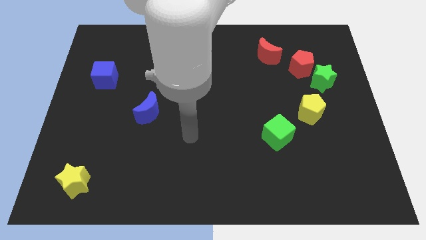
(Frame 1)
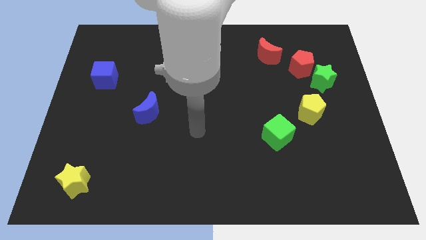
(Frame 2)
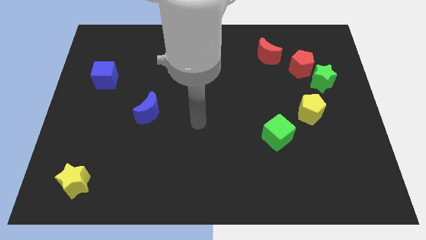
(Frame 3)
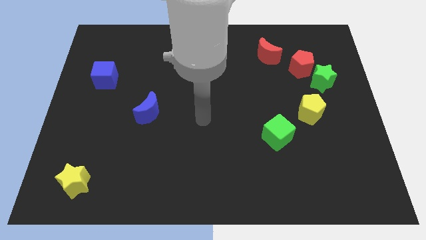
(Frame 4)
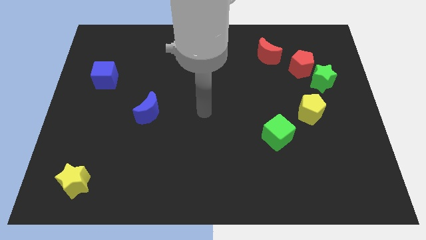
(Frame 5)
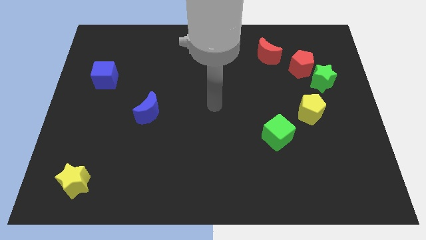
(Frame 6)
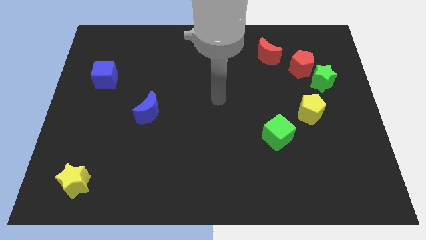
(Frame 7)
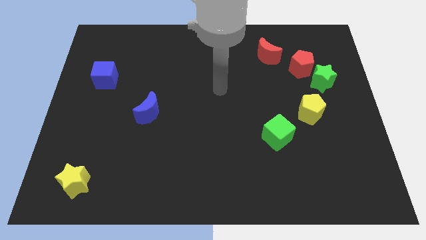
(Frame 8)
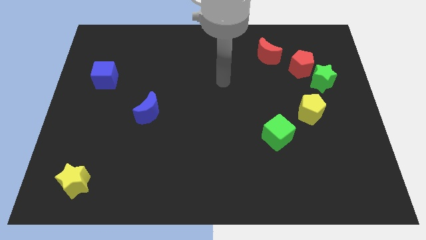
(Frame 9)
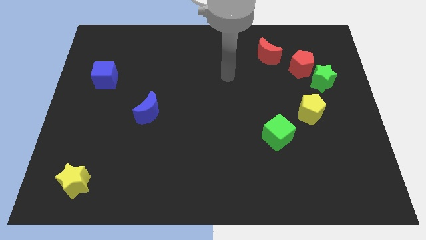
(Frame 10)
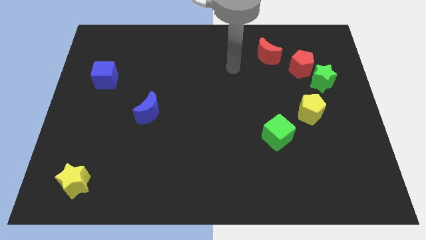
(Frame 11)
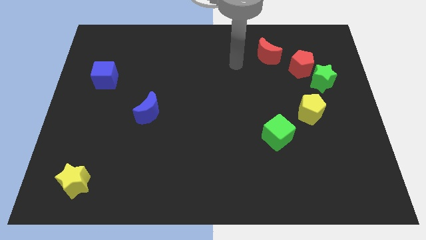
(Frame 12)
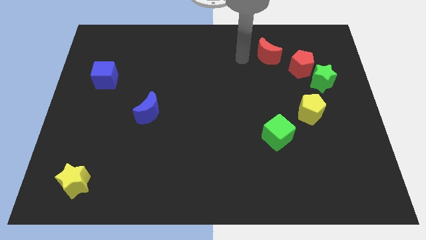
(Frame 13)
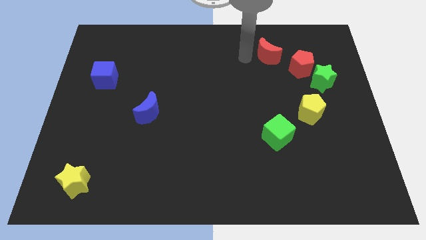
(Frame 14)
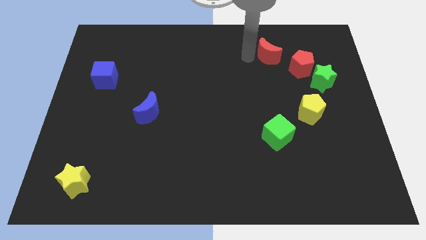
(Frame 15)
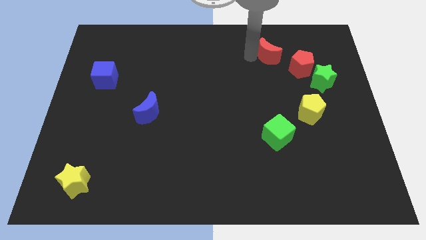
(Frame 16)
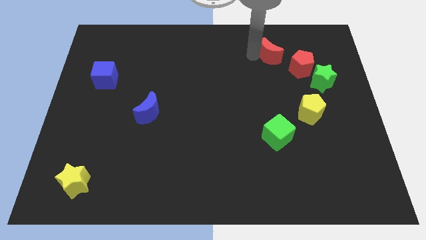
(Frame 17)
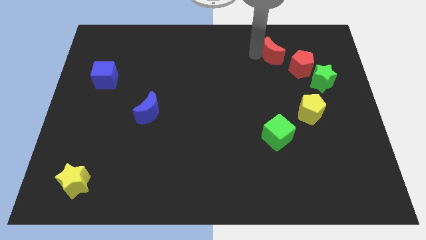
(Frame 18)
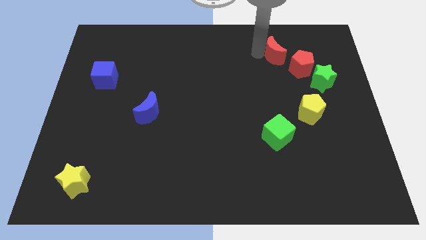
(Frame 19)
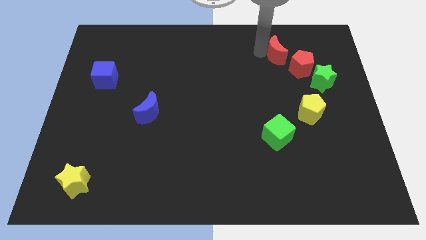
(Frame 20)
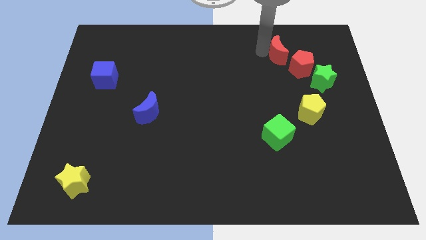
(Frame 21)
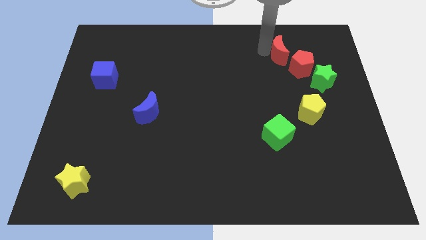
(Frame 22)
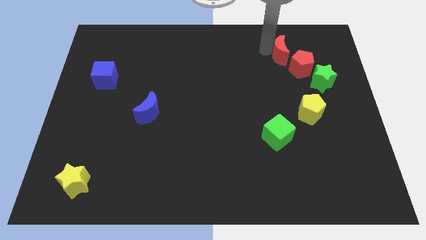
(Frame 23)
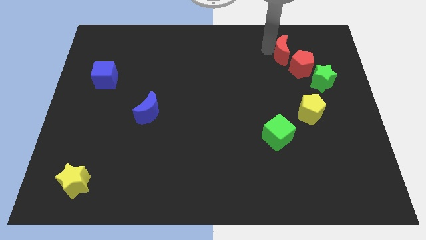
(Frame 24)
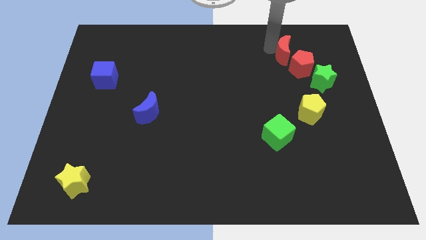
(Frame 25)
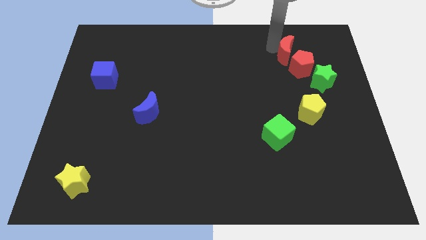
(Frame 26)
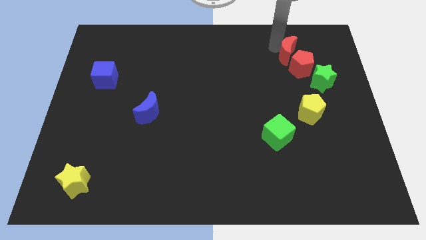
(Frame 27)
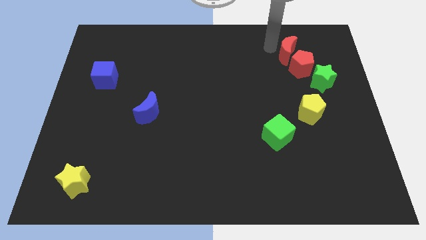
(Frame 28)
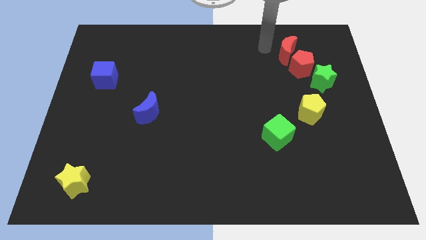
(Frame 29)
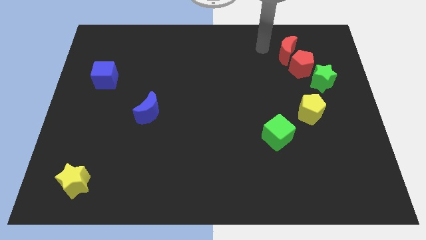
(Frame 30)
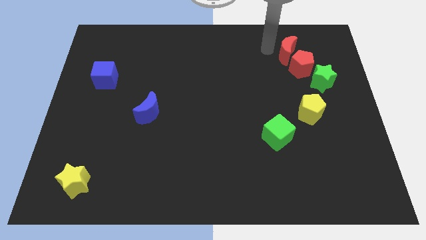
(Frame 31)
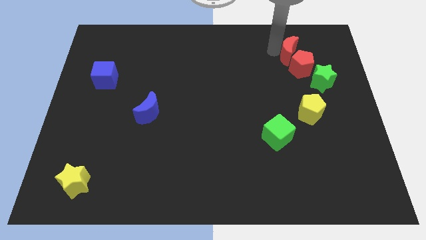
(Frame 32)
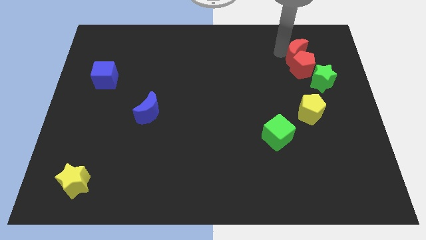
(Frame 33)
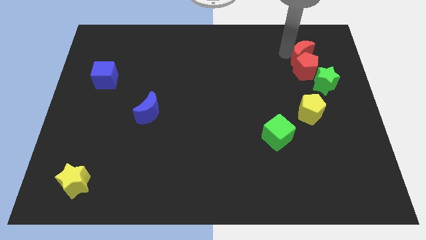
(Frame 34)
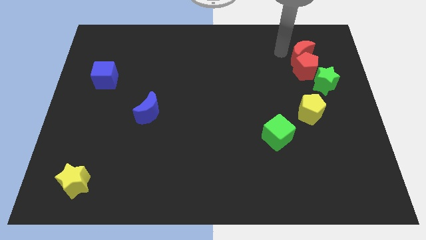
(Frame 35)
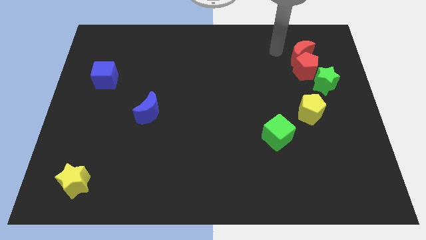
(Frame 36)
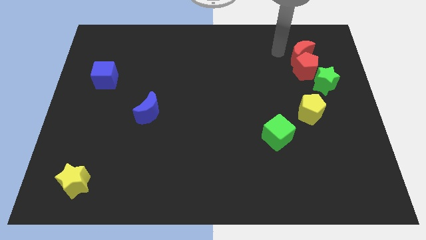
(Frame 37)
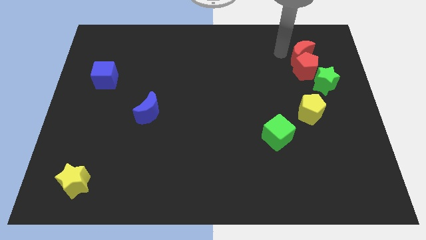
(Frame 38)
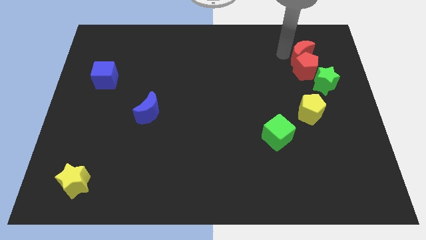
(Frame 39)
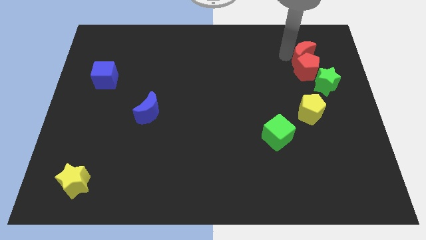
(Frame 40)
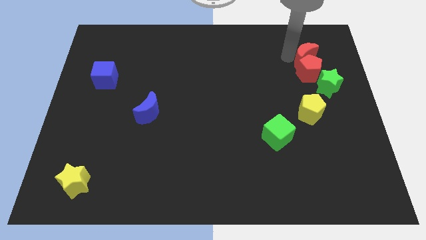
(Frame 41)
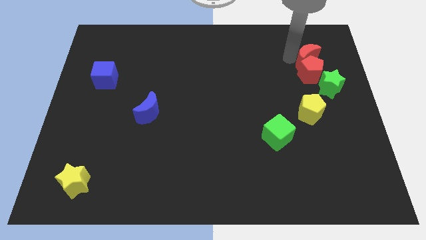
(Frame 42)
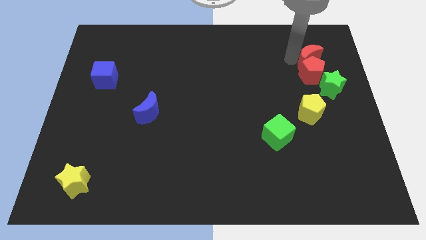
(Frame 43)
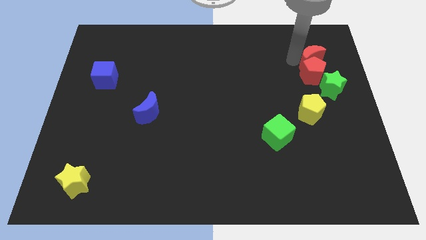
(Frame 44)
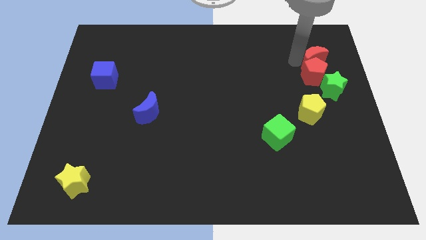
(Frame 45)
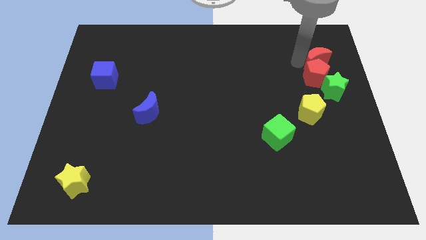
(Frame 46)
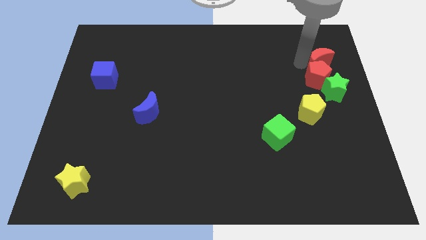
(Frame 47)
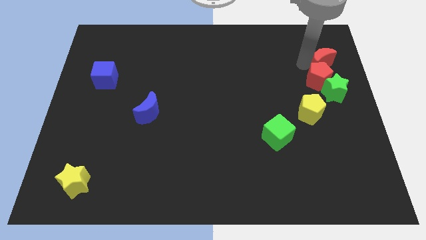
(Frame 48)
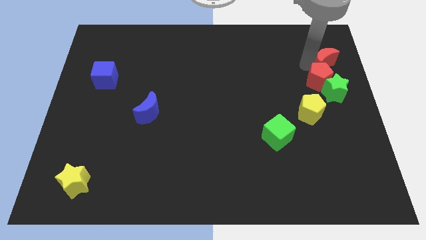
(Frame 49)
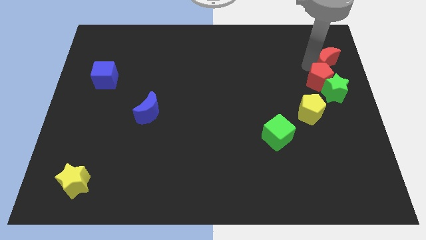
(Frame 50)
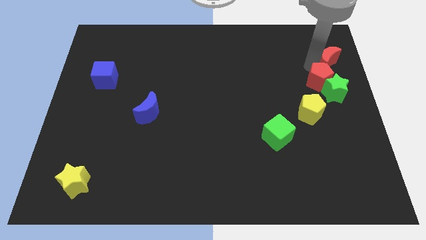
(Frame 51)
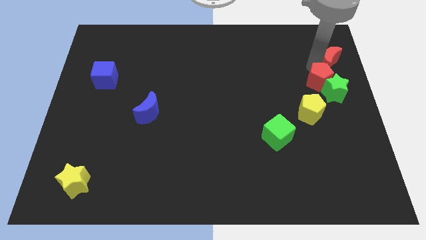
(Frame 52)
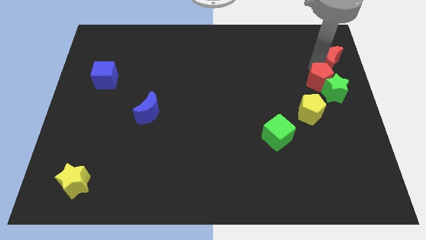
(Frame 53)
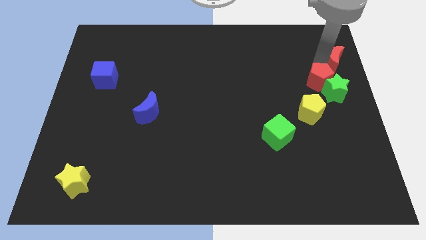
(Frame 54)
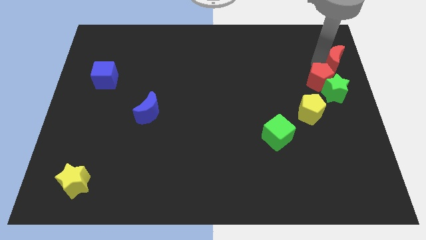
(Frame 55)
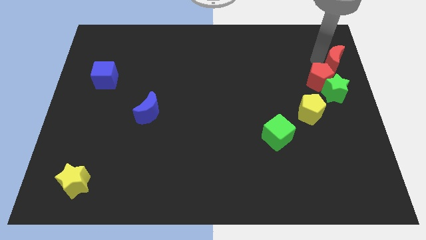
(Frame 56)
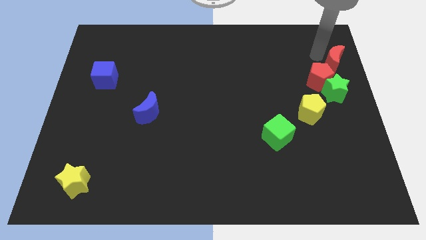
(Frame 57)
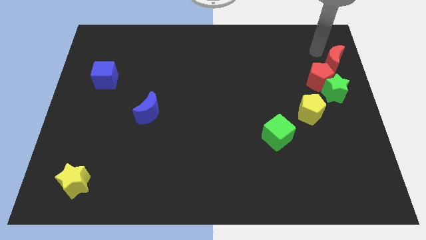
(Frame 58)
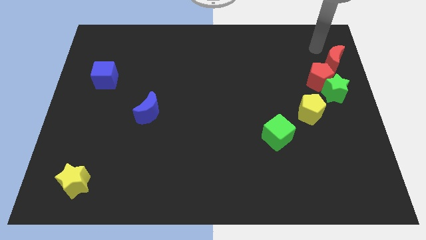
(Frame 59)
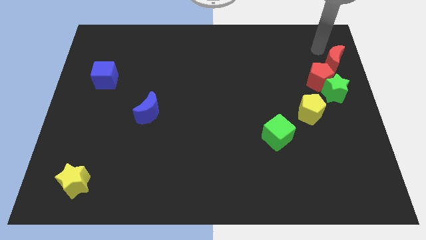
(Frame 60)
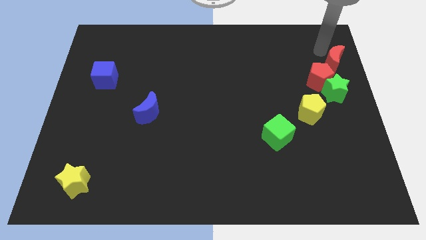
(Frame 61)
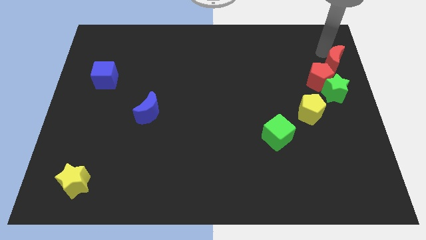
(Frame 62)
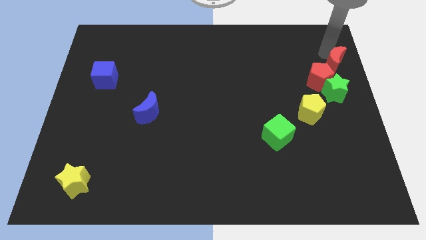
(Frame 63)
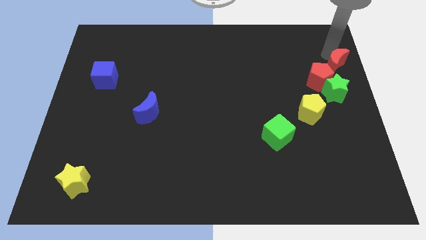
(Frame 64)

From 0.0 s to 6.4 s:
push the red moon to the center right
